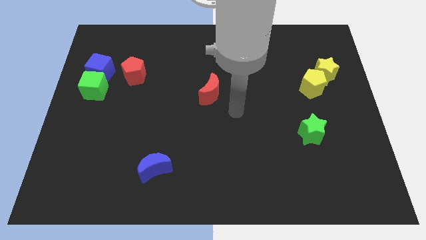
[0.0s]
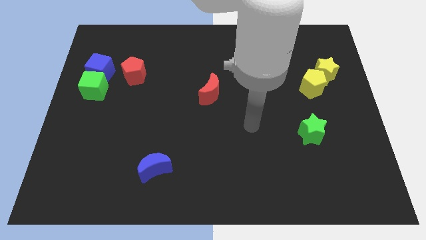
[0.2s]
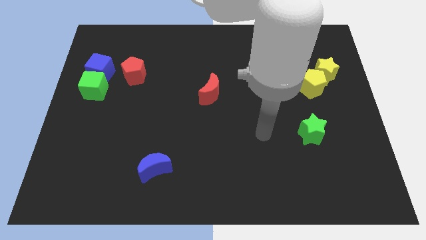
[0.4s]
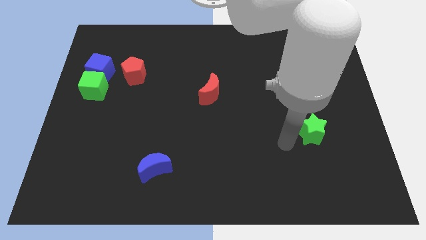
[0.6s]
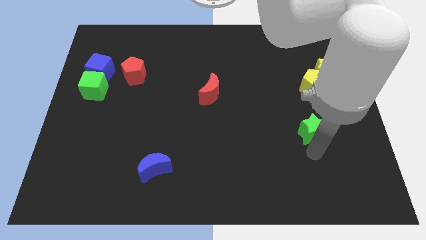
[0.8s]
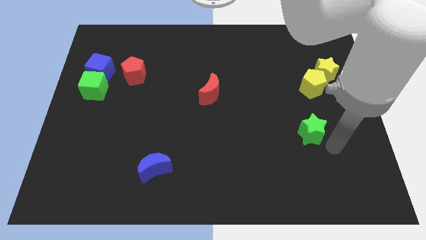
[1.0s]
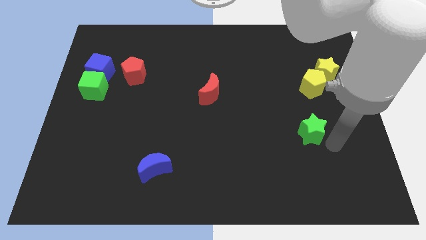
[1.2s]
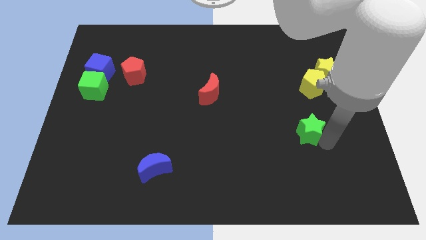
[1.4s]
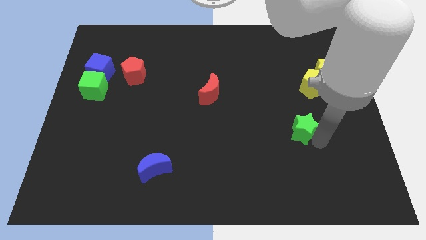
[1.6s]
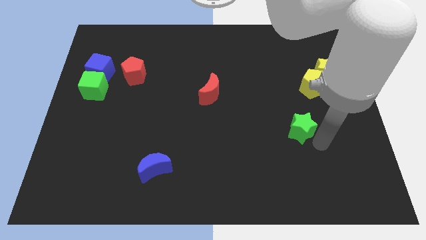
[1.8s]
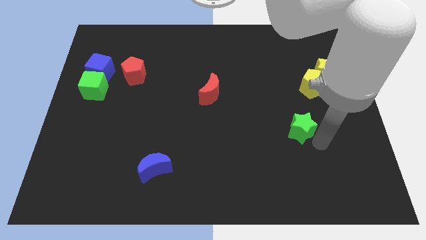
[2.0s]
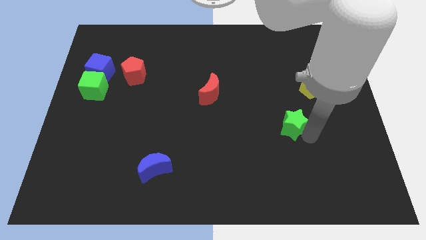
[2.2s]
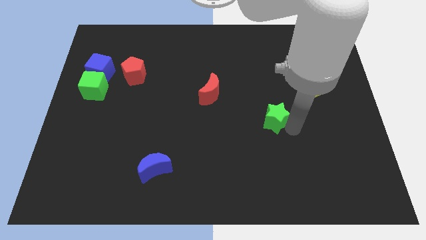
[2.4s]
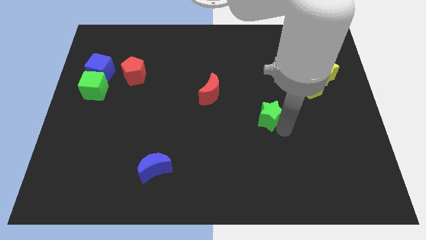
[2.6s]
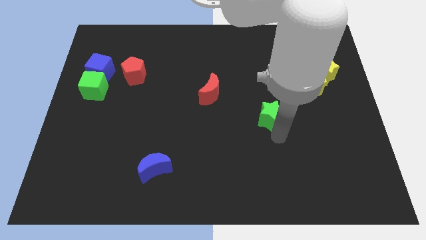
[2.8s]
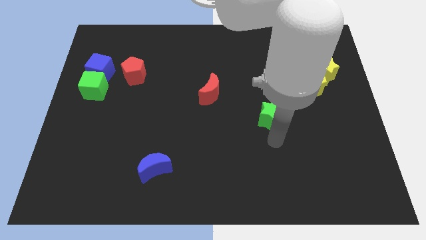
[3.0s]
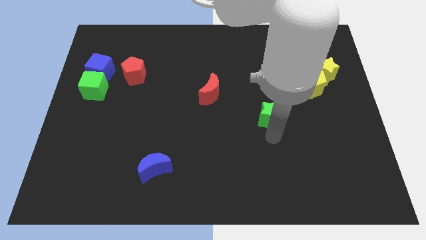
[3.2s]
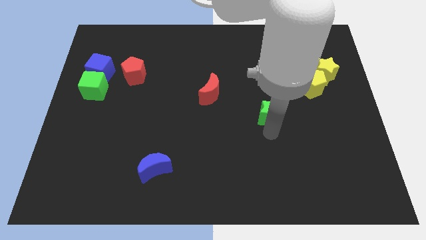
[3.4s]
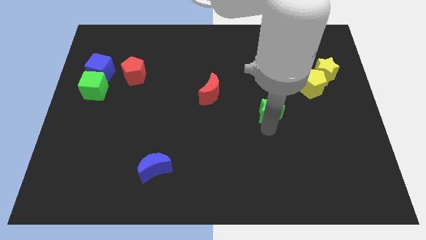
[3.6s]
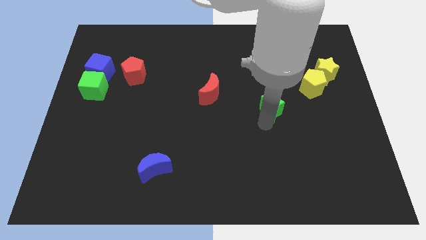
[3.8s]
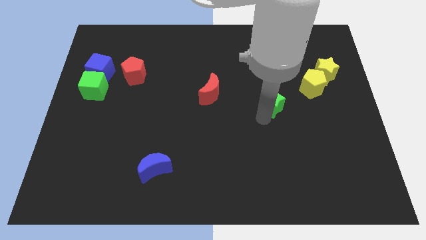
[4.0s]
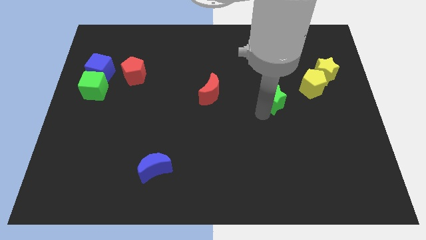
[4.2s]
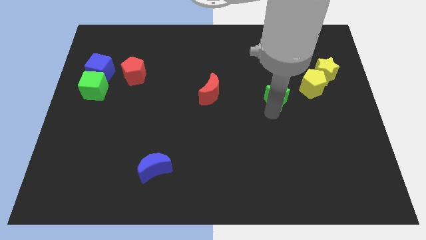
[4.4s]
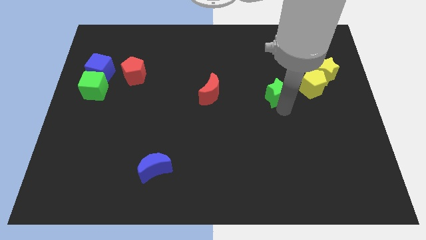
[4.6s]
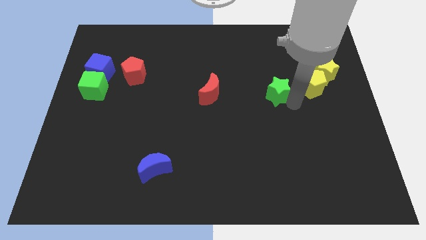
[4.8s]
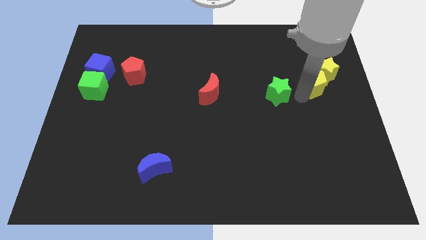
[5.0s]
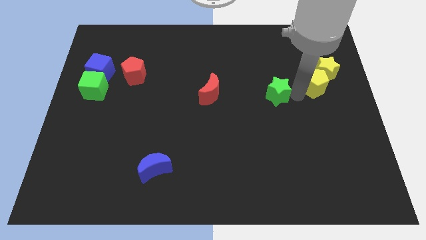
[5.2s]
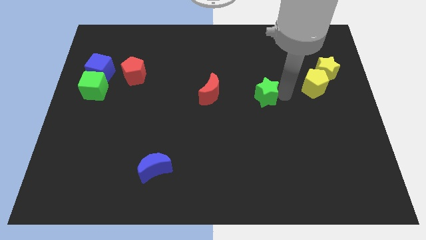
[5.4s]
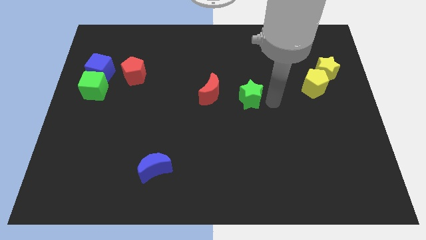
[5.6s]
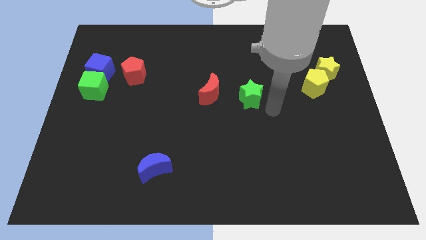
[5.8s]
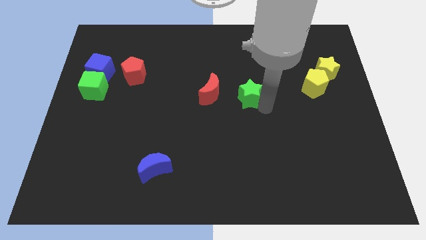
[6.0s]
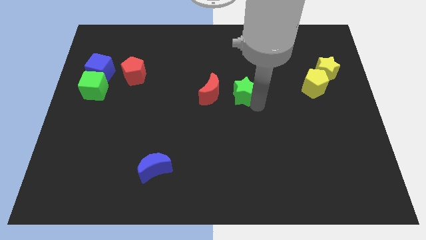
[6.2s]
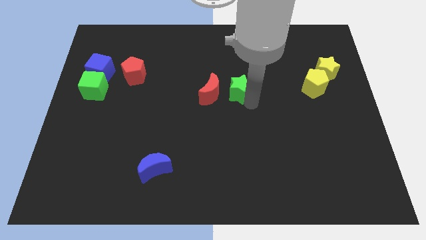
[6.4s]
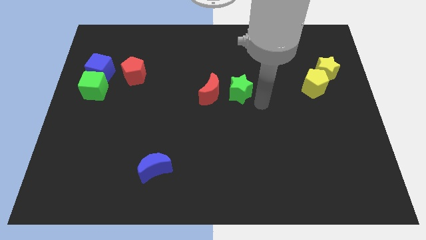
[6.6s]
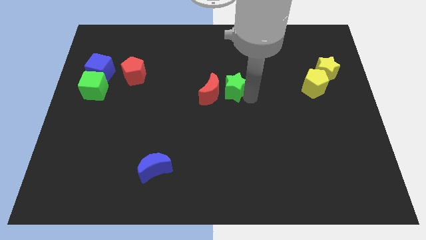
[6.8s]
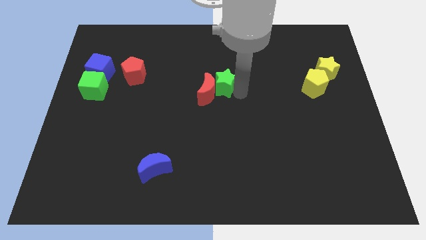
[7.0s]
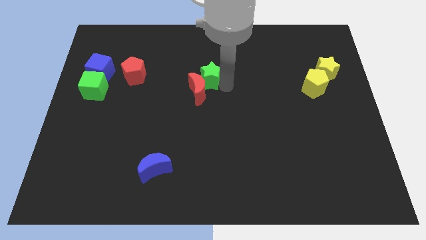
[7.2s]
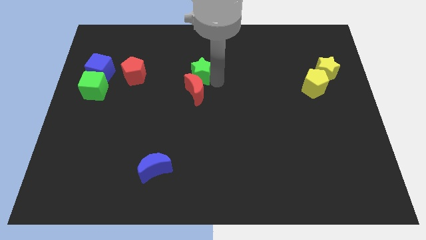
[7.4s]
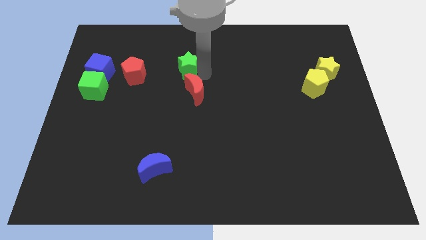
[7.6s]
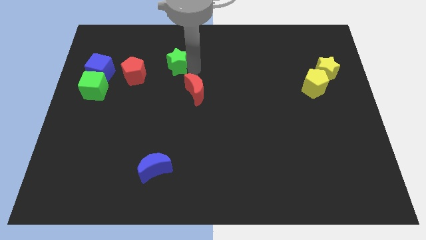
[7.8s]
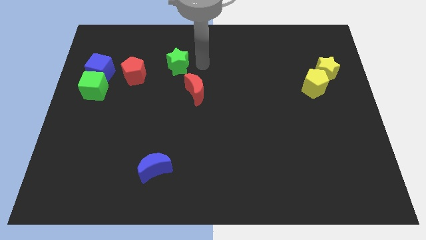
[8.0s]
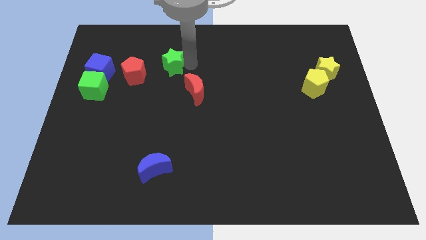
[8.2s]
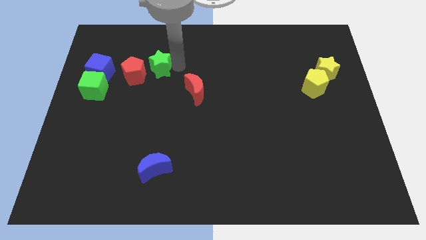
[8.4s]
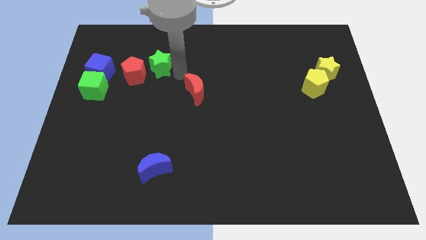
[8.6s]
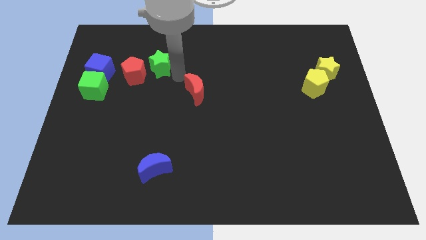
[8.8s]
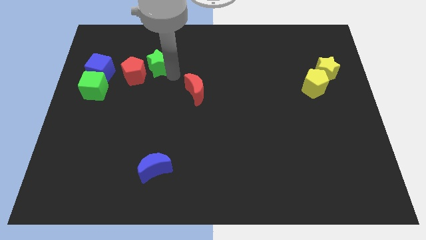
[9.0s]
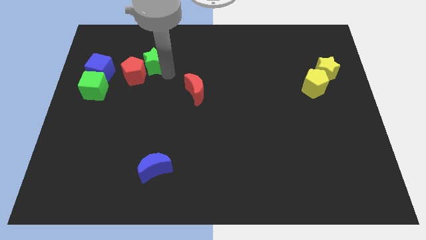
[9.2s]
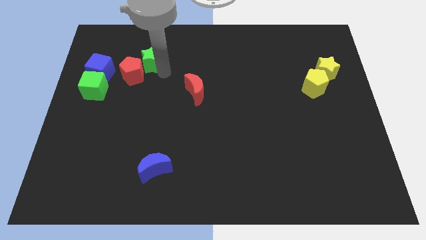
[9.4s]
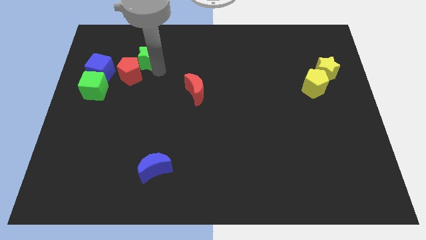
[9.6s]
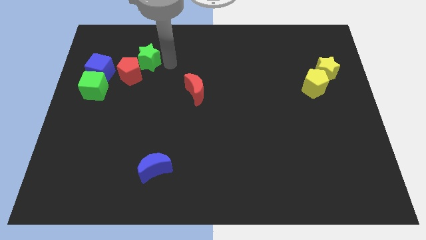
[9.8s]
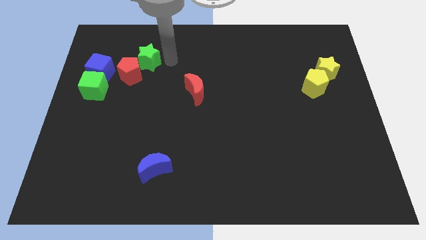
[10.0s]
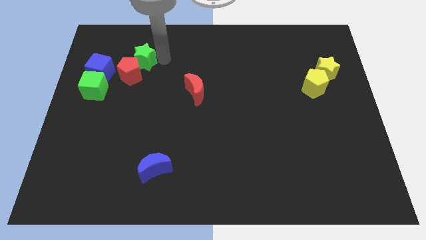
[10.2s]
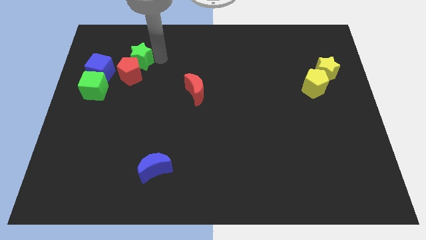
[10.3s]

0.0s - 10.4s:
put the green star to the top left of the red pentagon

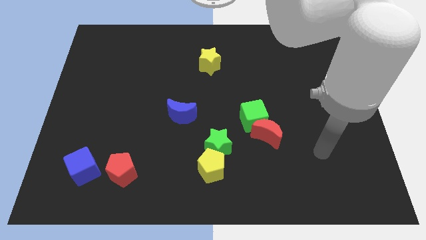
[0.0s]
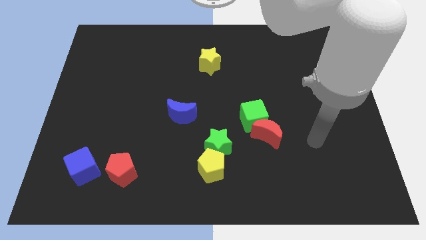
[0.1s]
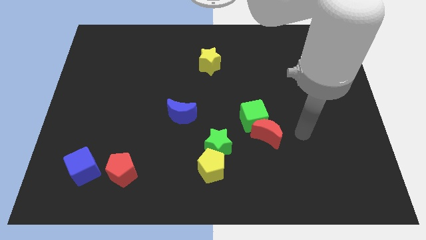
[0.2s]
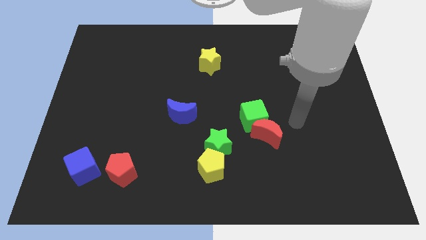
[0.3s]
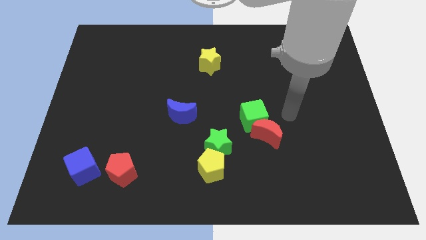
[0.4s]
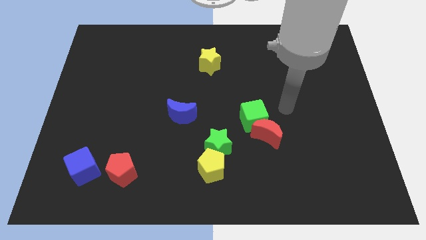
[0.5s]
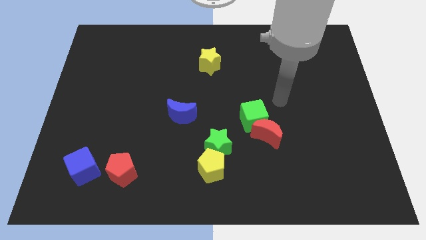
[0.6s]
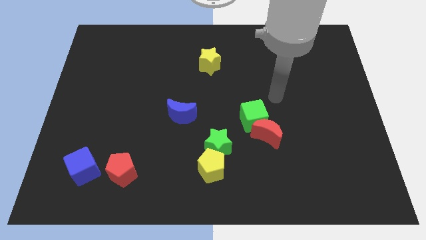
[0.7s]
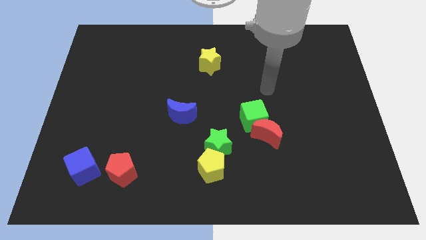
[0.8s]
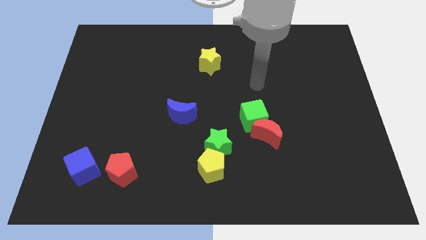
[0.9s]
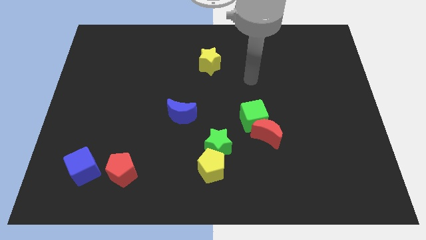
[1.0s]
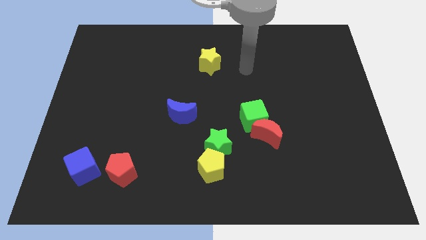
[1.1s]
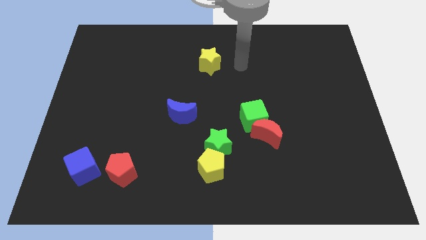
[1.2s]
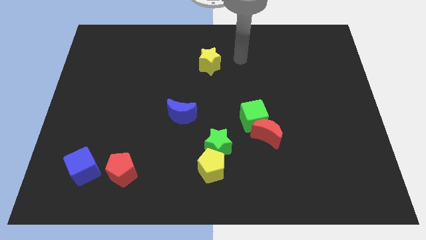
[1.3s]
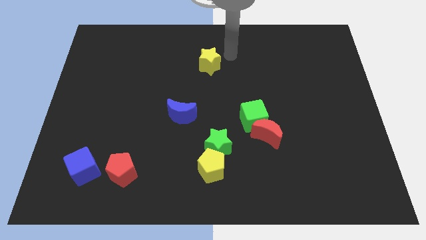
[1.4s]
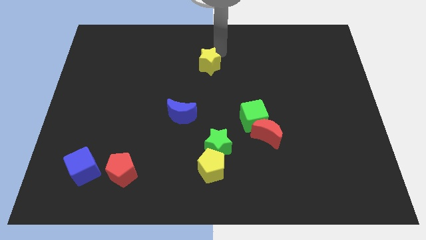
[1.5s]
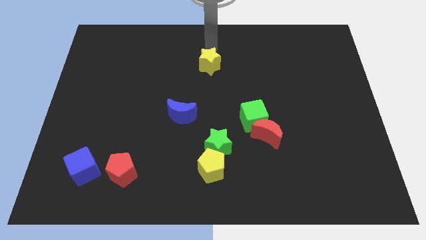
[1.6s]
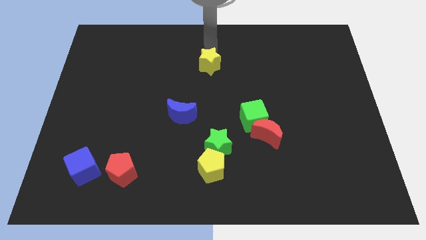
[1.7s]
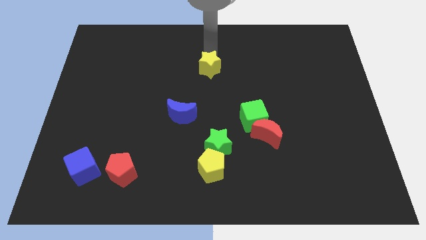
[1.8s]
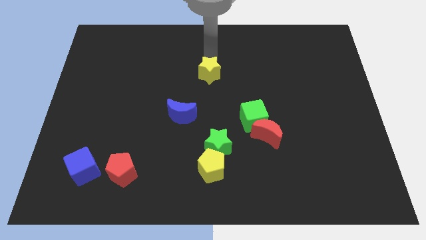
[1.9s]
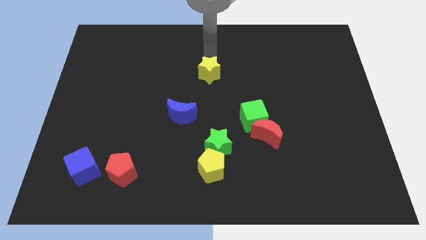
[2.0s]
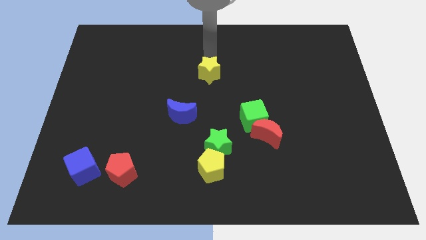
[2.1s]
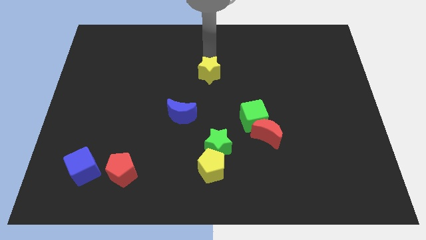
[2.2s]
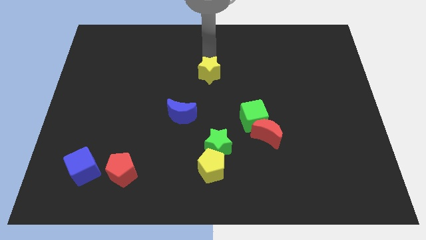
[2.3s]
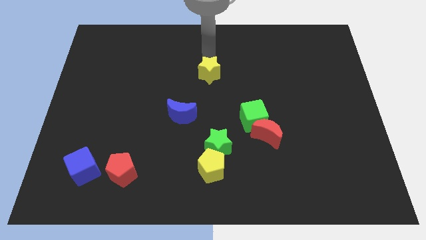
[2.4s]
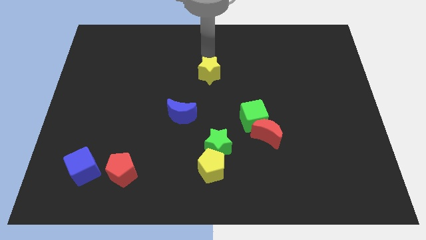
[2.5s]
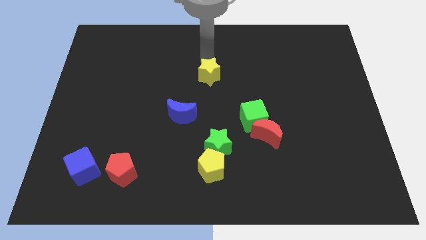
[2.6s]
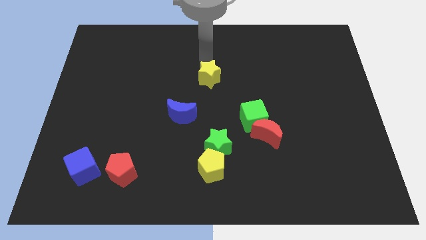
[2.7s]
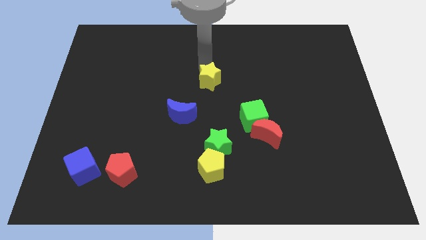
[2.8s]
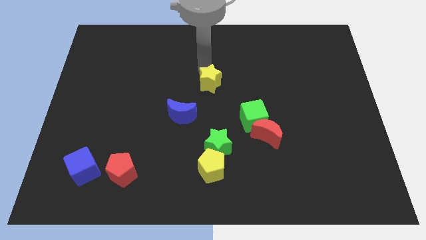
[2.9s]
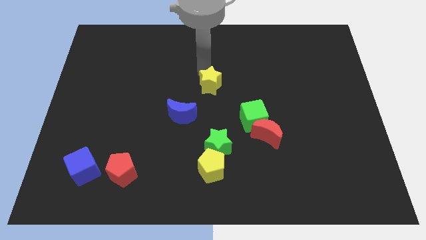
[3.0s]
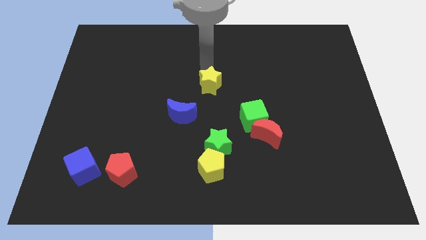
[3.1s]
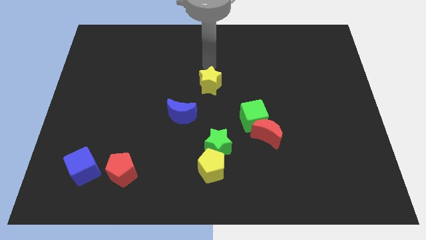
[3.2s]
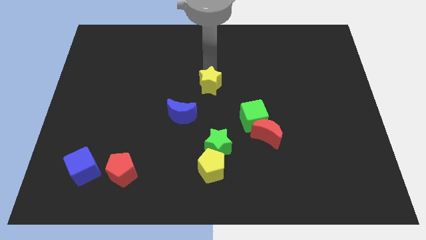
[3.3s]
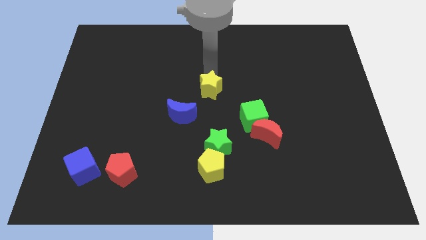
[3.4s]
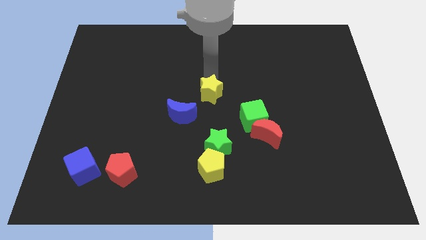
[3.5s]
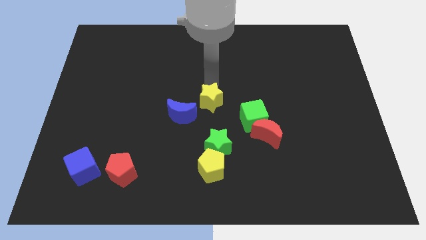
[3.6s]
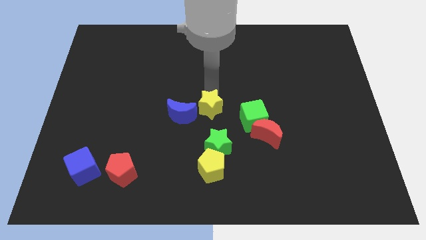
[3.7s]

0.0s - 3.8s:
move the yellow star to the top side of the yellow pentagon
